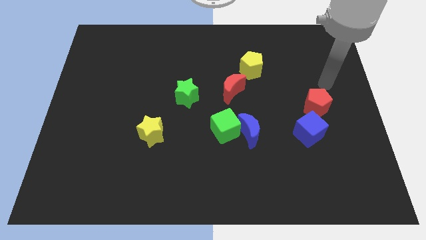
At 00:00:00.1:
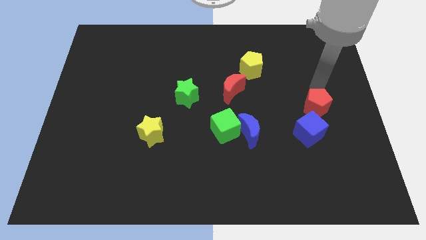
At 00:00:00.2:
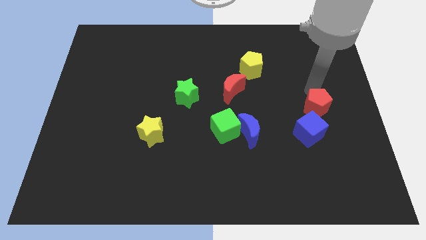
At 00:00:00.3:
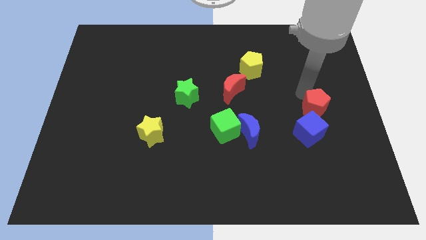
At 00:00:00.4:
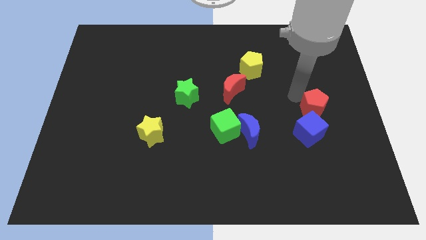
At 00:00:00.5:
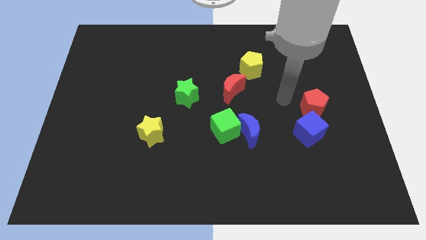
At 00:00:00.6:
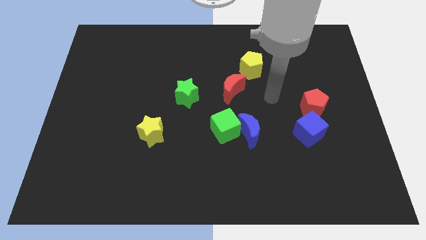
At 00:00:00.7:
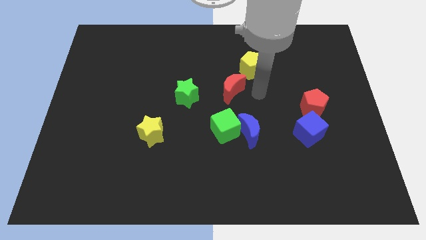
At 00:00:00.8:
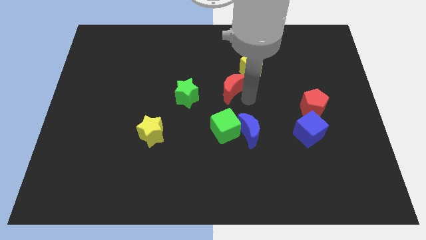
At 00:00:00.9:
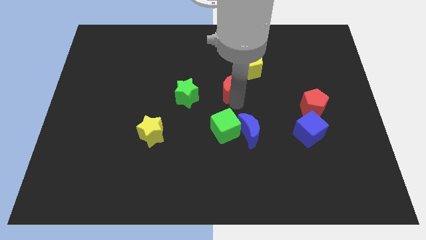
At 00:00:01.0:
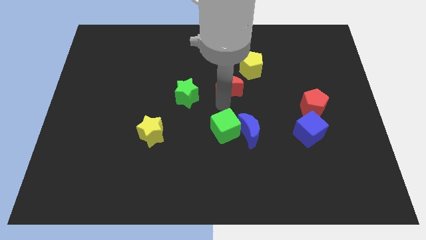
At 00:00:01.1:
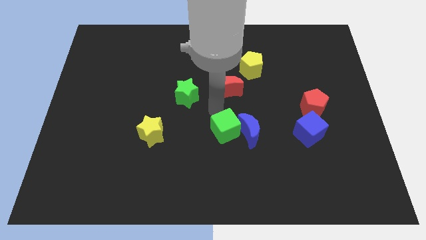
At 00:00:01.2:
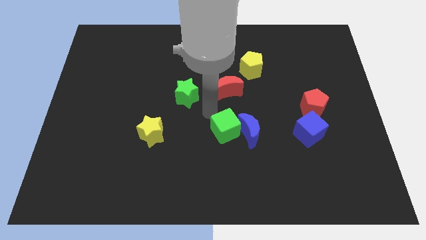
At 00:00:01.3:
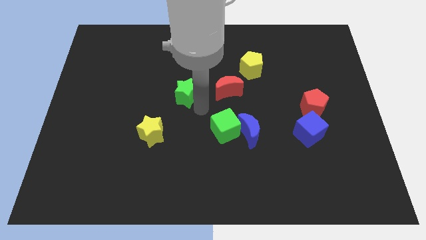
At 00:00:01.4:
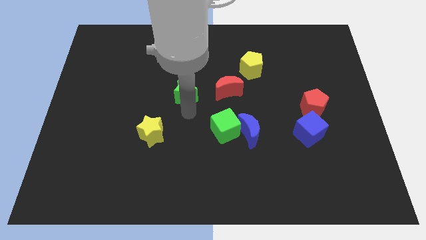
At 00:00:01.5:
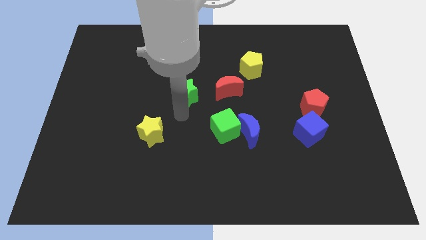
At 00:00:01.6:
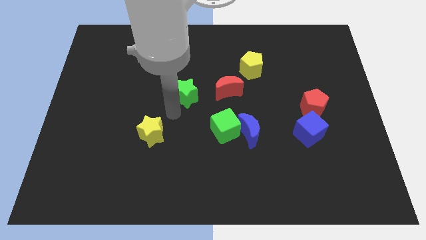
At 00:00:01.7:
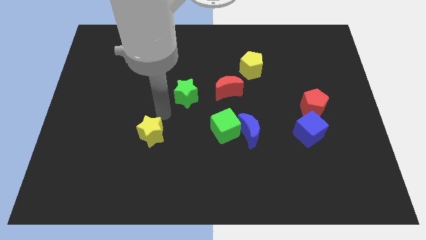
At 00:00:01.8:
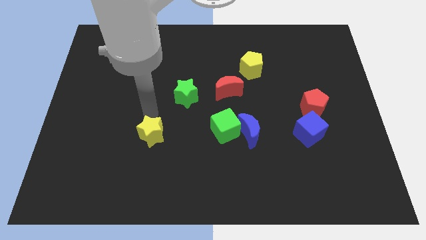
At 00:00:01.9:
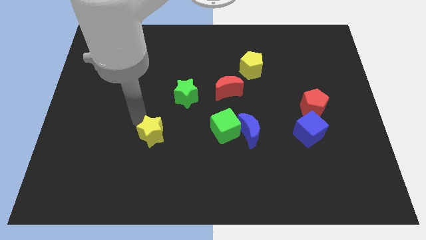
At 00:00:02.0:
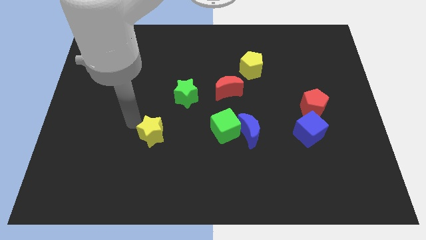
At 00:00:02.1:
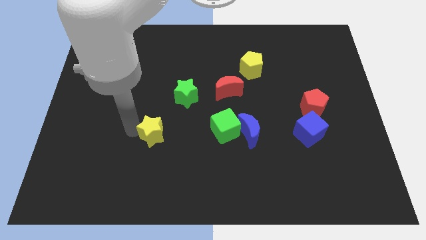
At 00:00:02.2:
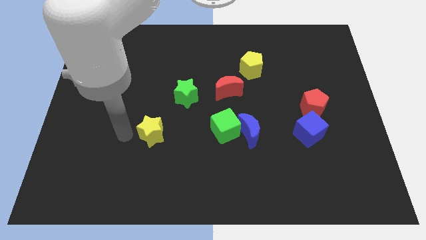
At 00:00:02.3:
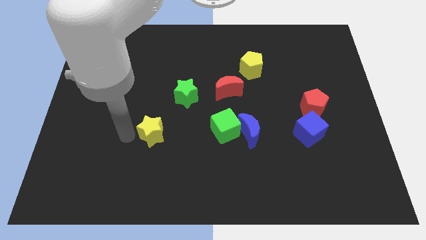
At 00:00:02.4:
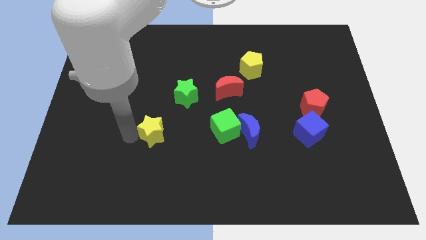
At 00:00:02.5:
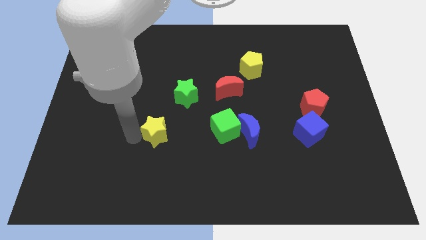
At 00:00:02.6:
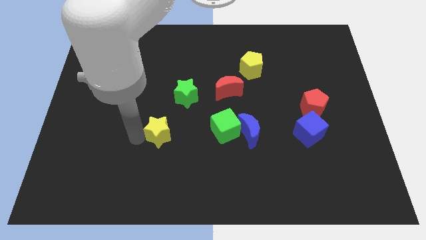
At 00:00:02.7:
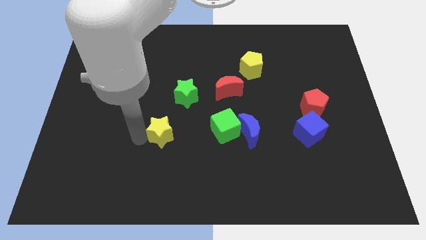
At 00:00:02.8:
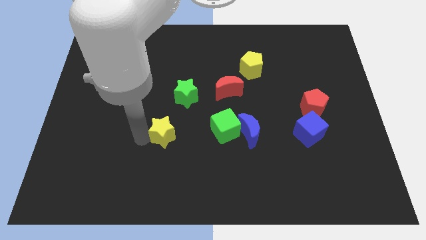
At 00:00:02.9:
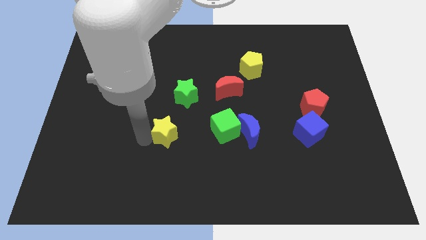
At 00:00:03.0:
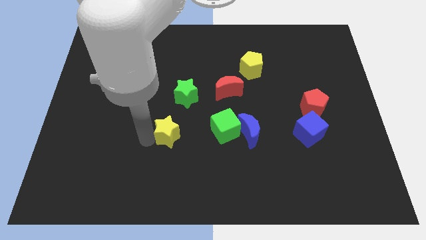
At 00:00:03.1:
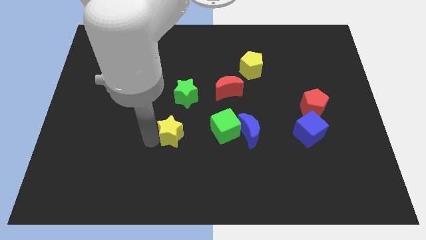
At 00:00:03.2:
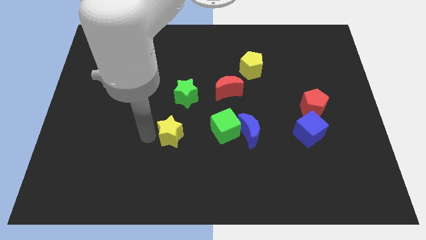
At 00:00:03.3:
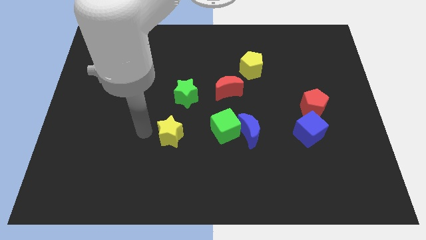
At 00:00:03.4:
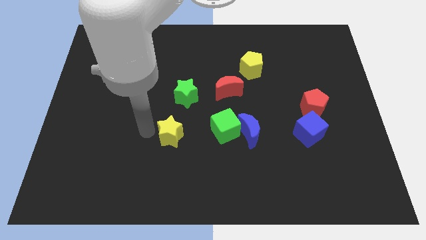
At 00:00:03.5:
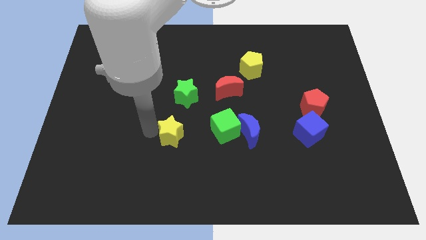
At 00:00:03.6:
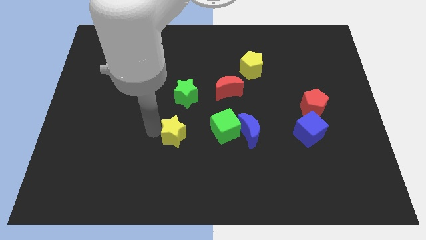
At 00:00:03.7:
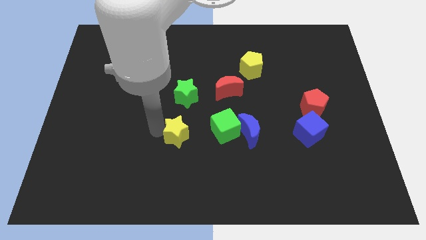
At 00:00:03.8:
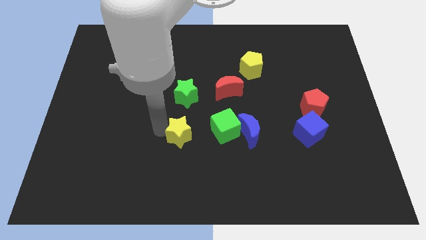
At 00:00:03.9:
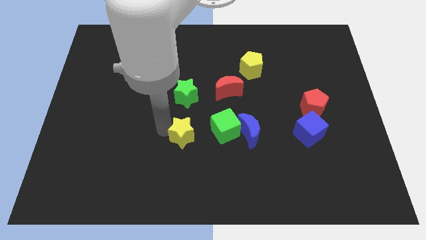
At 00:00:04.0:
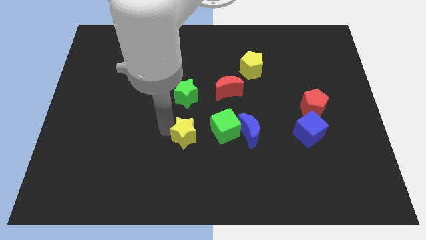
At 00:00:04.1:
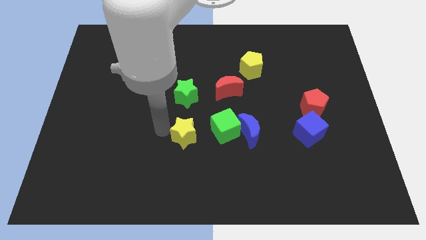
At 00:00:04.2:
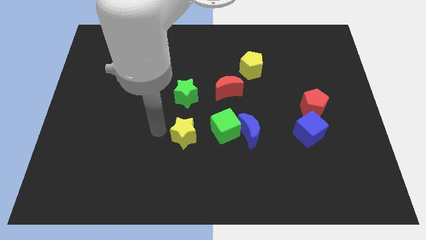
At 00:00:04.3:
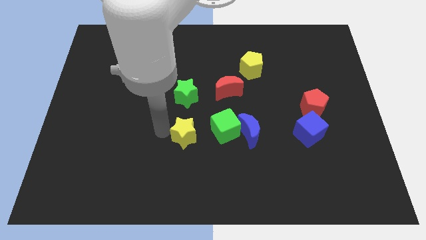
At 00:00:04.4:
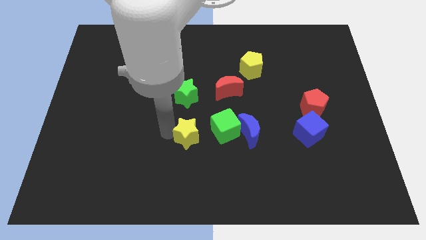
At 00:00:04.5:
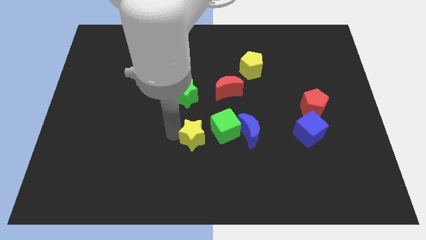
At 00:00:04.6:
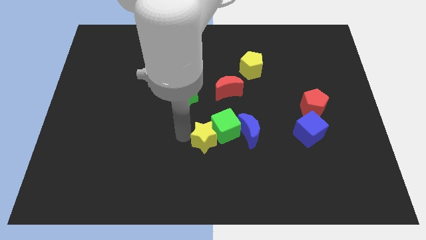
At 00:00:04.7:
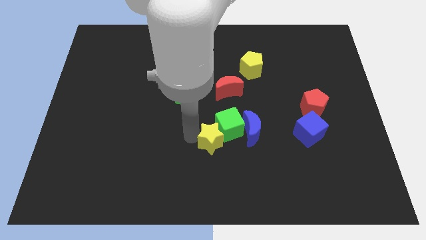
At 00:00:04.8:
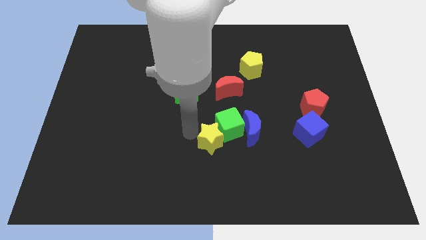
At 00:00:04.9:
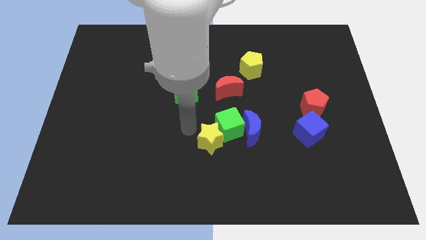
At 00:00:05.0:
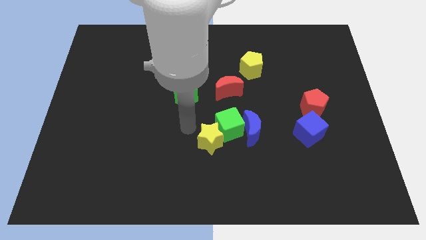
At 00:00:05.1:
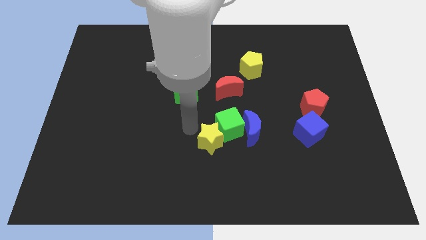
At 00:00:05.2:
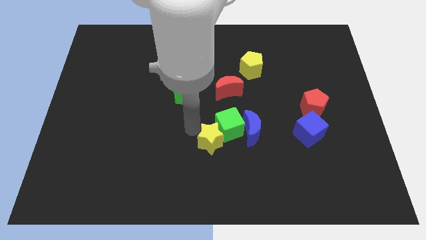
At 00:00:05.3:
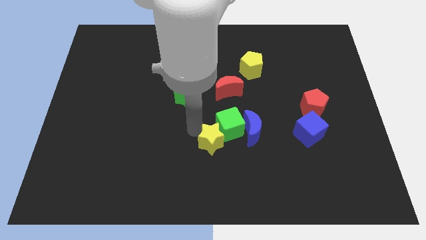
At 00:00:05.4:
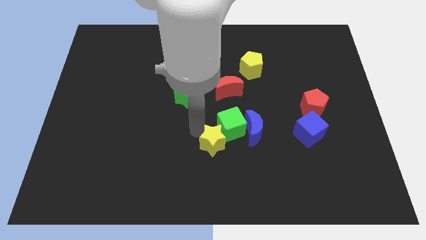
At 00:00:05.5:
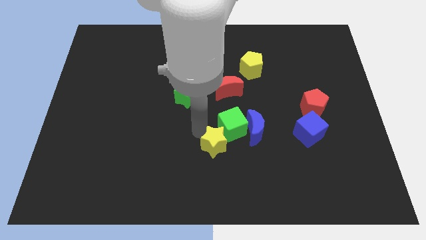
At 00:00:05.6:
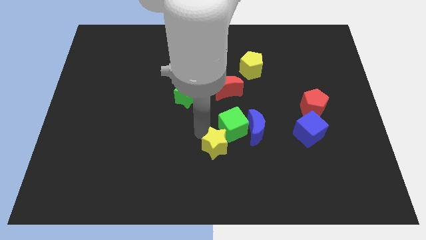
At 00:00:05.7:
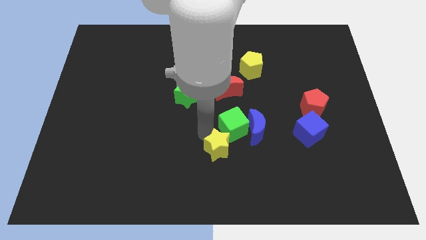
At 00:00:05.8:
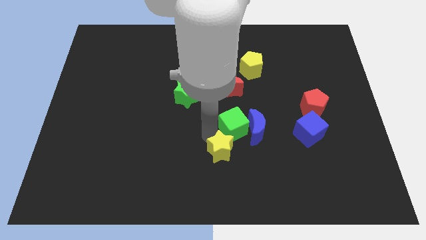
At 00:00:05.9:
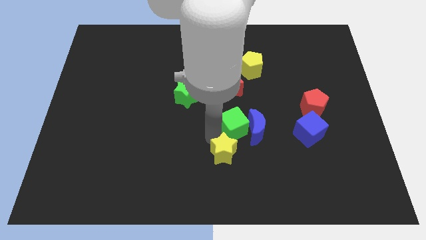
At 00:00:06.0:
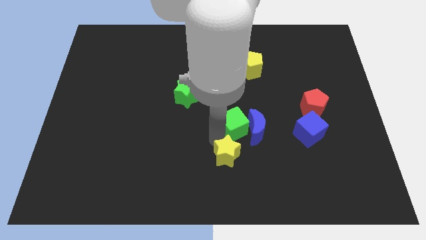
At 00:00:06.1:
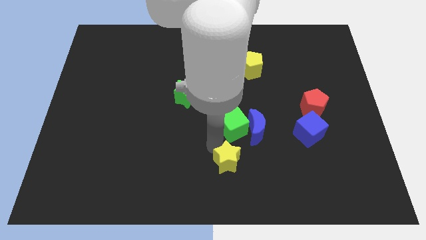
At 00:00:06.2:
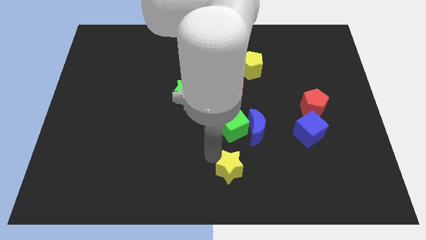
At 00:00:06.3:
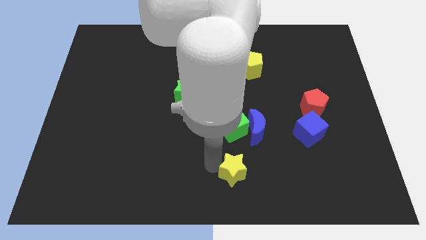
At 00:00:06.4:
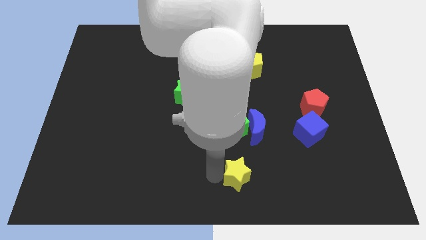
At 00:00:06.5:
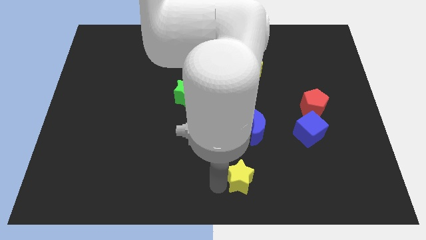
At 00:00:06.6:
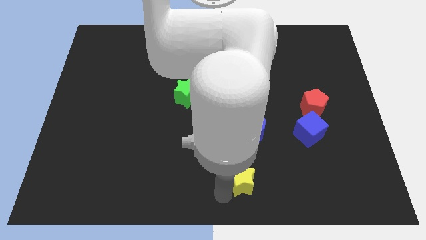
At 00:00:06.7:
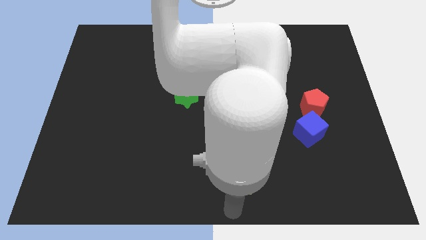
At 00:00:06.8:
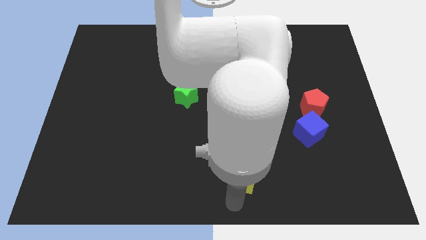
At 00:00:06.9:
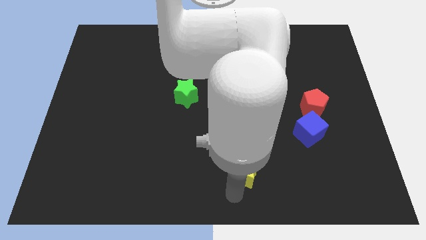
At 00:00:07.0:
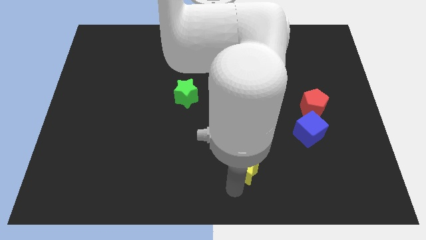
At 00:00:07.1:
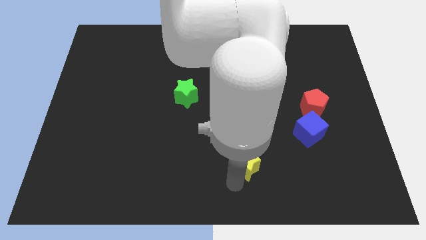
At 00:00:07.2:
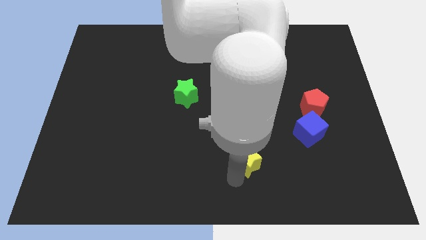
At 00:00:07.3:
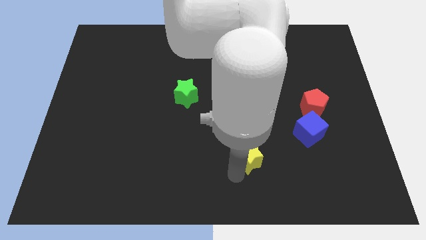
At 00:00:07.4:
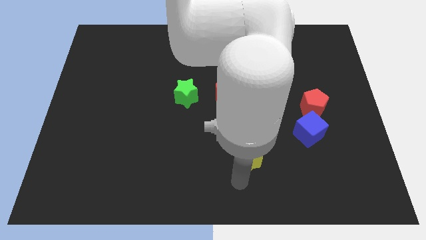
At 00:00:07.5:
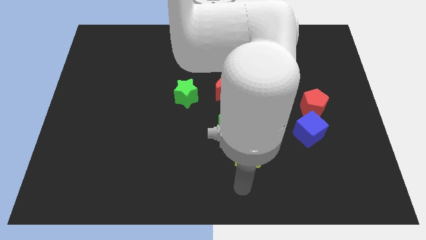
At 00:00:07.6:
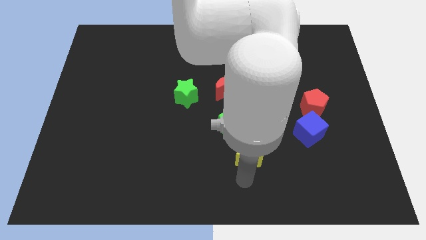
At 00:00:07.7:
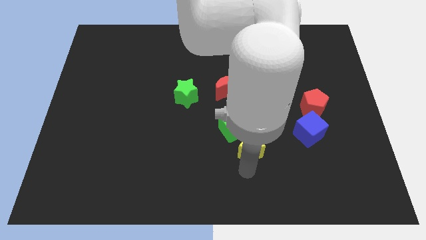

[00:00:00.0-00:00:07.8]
slide the yellow star next to the blue moon
